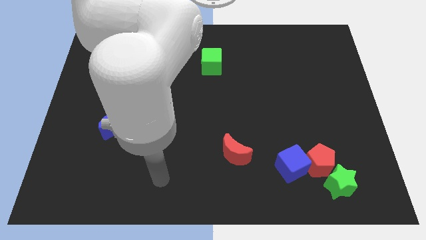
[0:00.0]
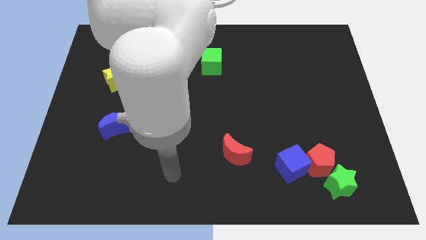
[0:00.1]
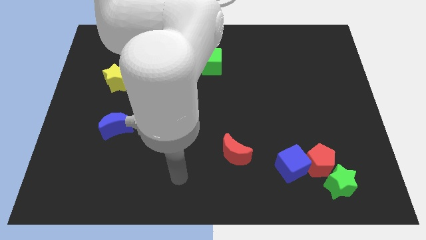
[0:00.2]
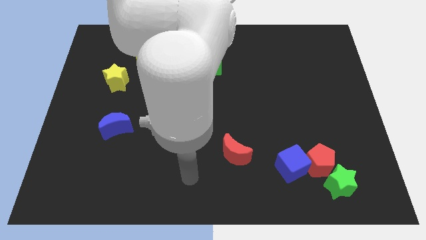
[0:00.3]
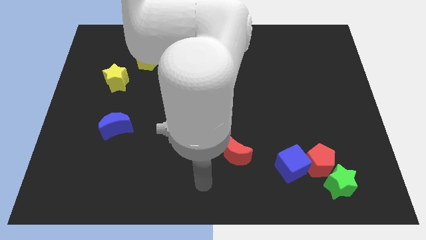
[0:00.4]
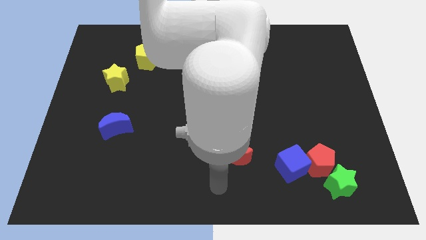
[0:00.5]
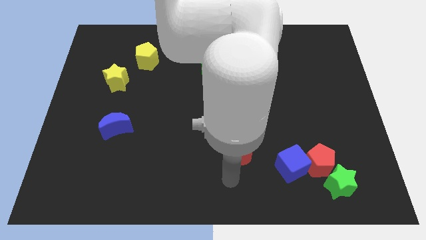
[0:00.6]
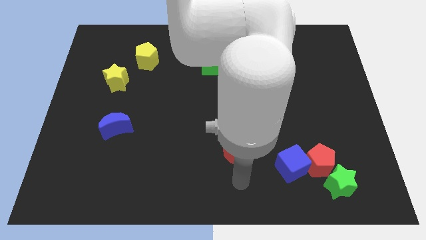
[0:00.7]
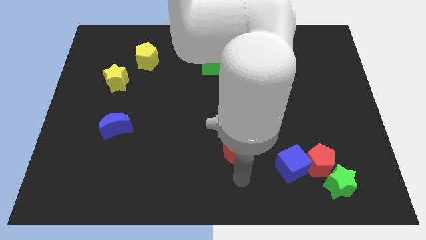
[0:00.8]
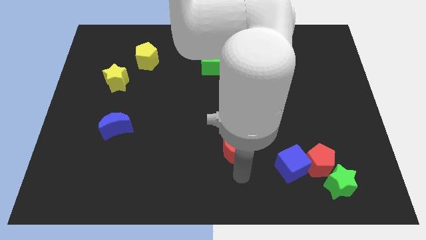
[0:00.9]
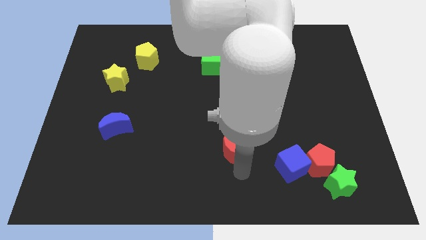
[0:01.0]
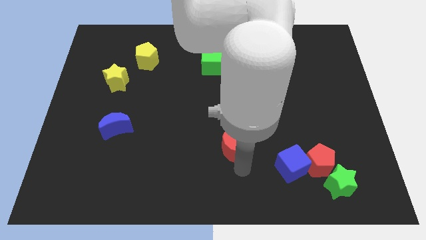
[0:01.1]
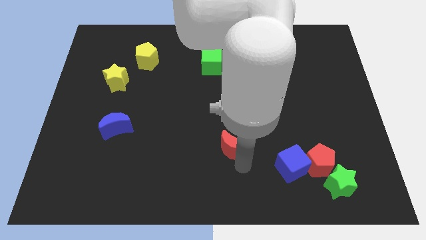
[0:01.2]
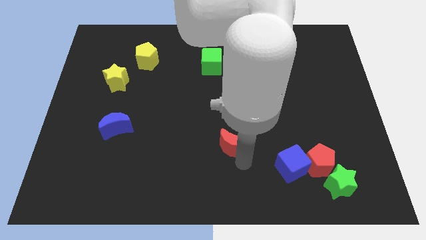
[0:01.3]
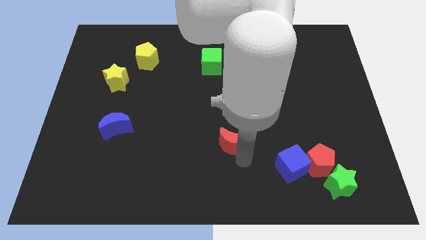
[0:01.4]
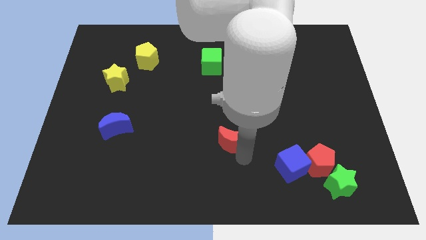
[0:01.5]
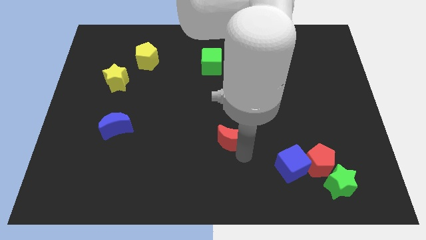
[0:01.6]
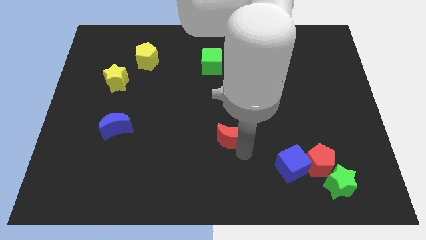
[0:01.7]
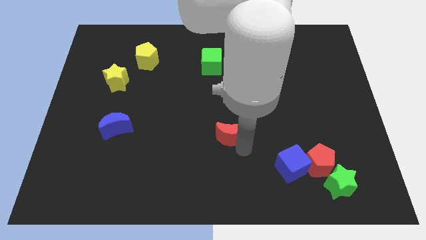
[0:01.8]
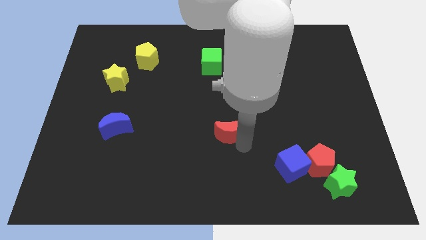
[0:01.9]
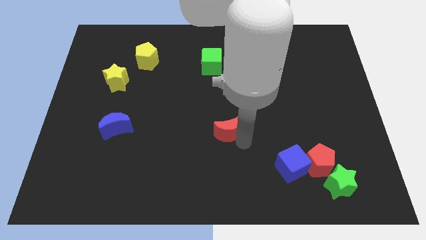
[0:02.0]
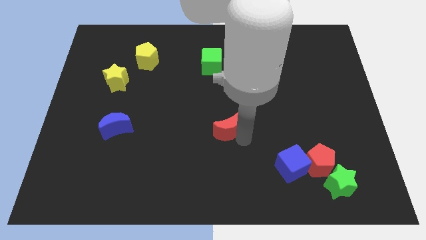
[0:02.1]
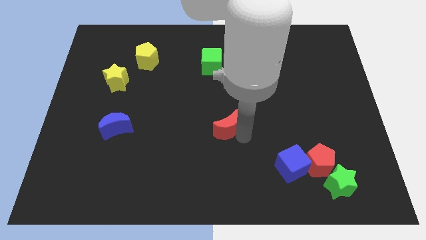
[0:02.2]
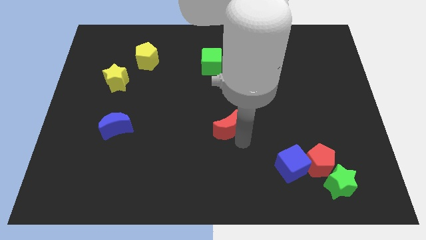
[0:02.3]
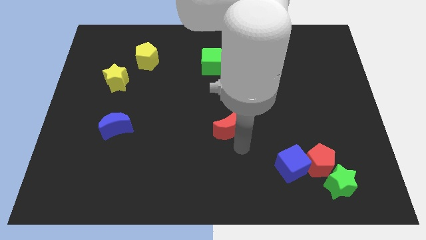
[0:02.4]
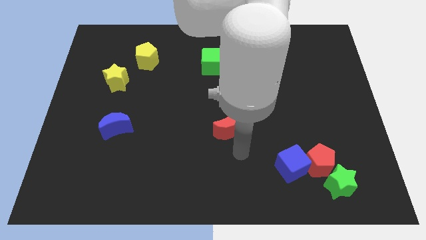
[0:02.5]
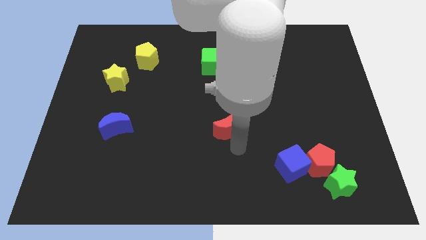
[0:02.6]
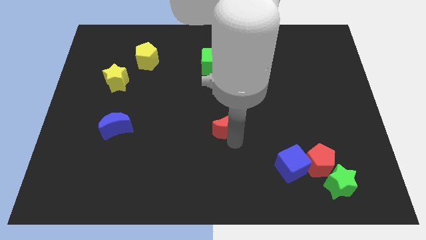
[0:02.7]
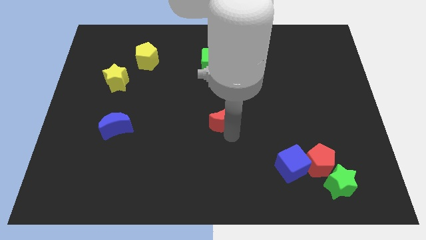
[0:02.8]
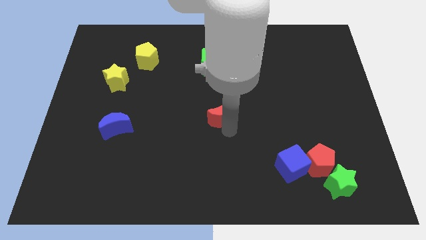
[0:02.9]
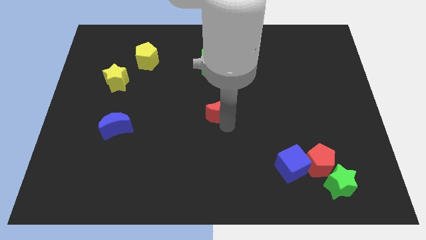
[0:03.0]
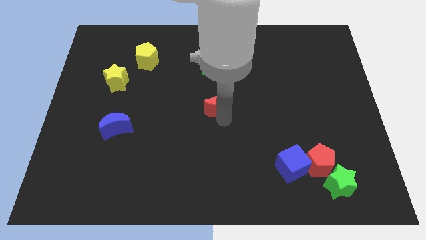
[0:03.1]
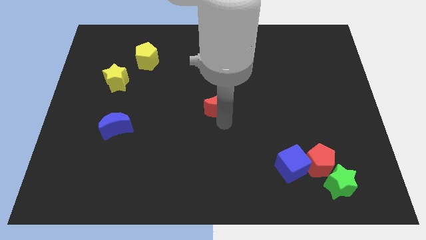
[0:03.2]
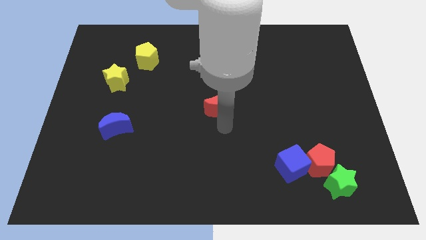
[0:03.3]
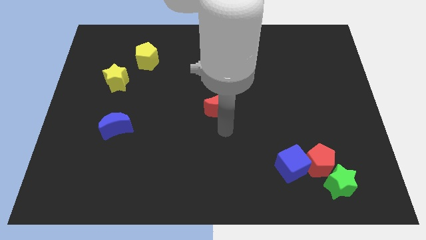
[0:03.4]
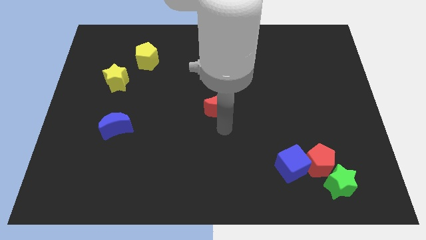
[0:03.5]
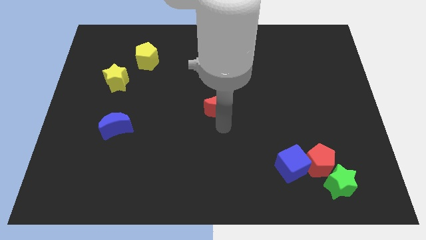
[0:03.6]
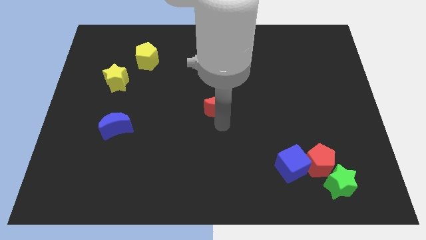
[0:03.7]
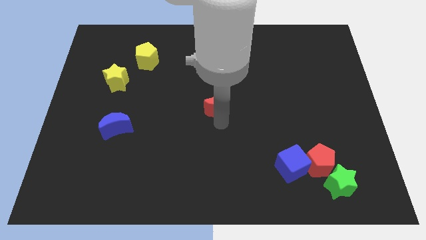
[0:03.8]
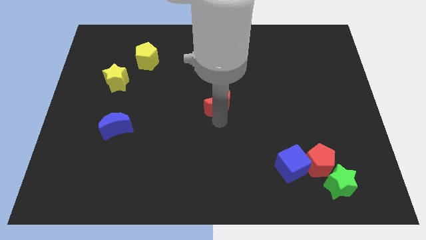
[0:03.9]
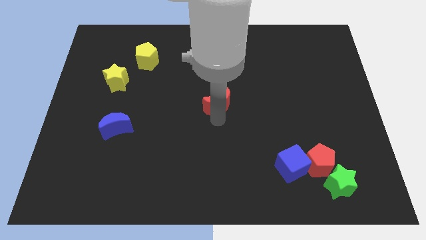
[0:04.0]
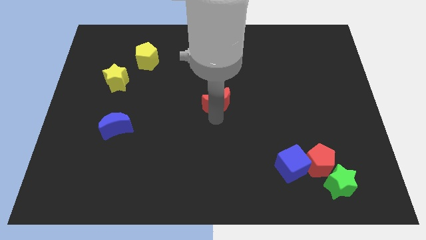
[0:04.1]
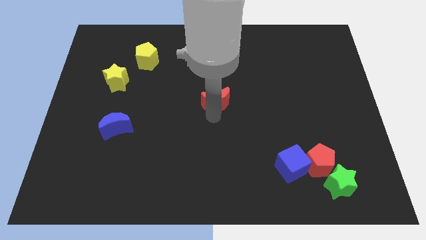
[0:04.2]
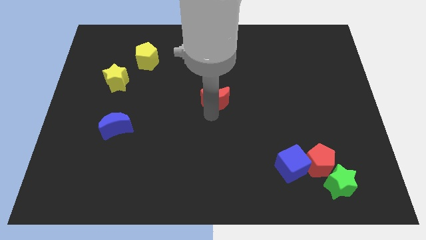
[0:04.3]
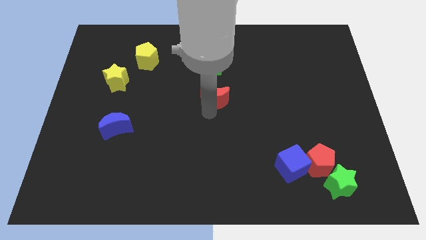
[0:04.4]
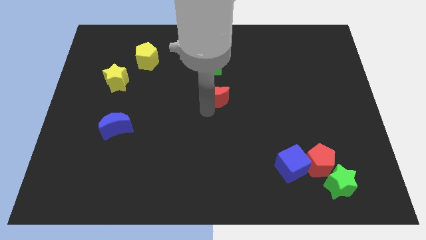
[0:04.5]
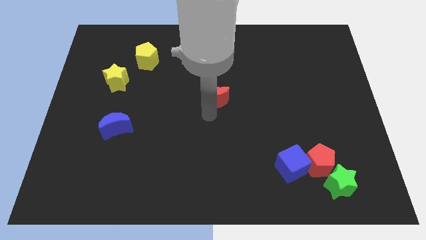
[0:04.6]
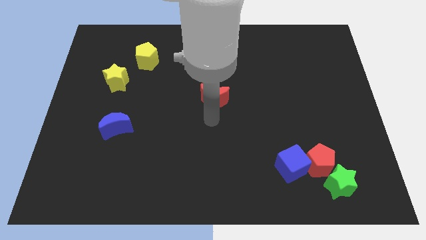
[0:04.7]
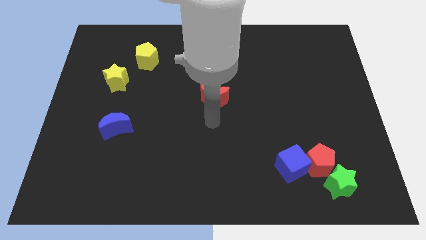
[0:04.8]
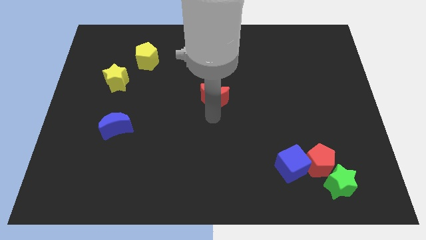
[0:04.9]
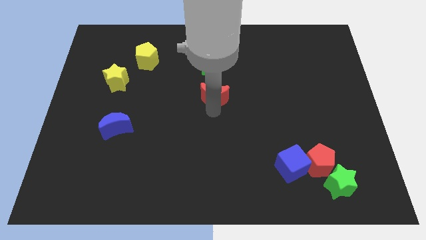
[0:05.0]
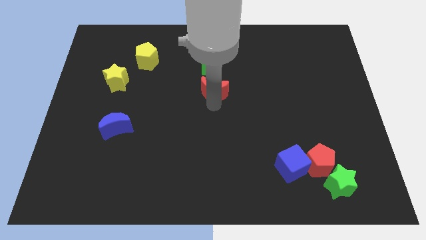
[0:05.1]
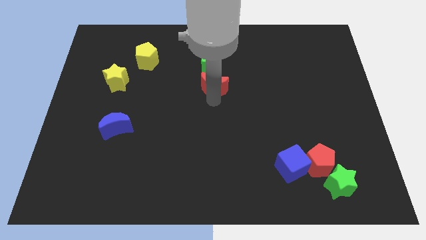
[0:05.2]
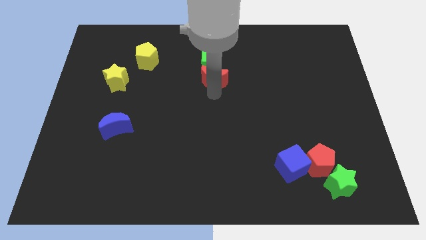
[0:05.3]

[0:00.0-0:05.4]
put the red moon to the green cube

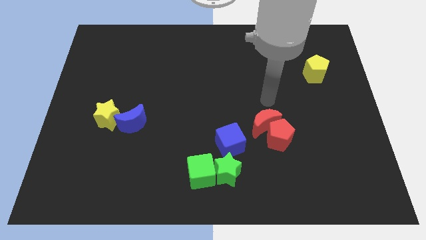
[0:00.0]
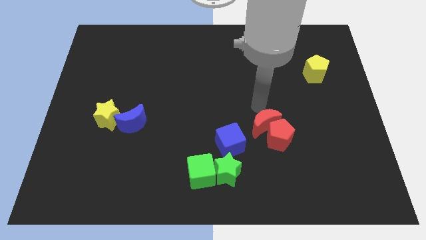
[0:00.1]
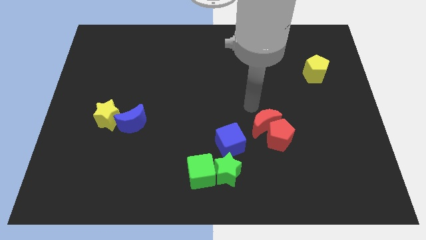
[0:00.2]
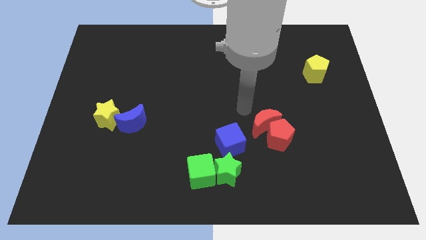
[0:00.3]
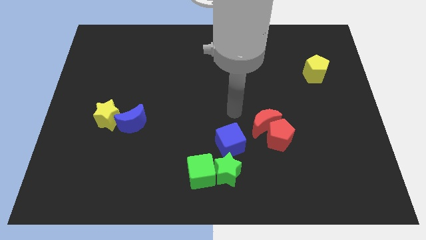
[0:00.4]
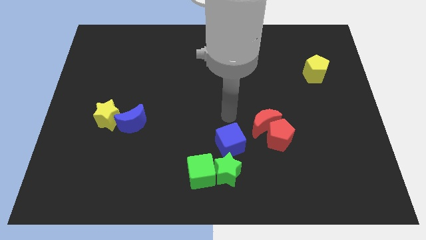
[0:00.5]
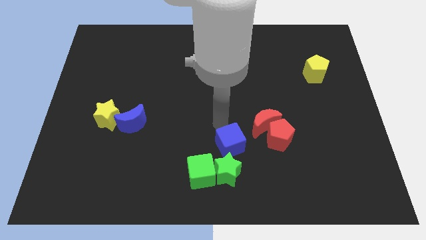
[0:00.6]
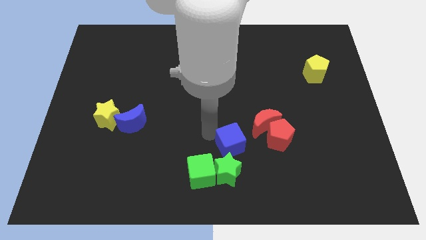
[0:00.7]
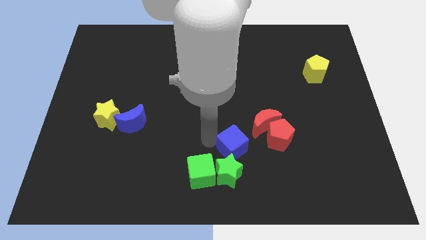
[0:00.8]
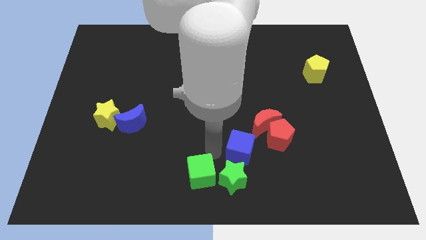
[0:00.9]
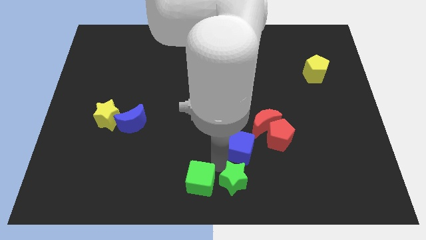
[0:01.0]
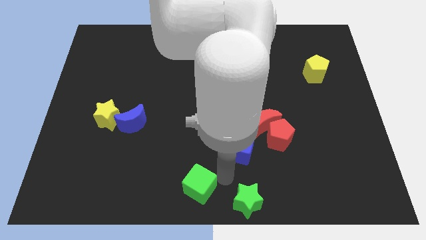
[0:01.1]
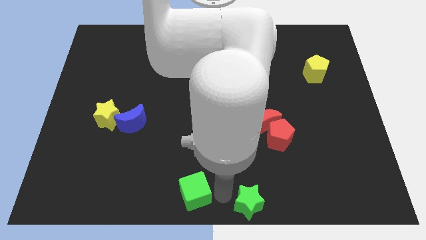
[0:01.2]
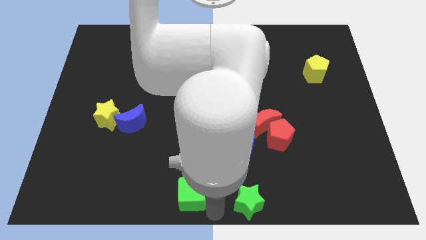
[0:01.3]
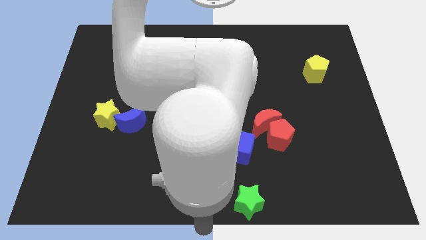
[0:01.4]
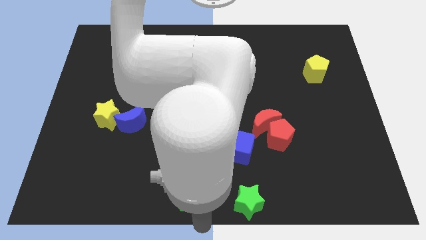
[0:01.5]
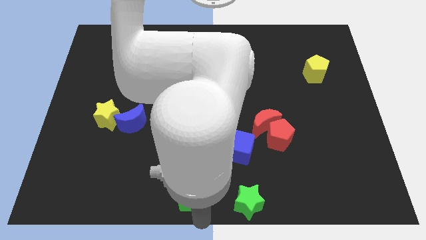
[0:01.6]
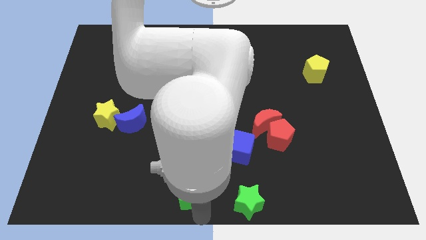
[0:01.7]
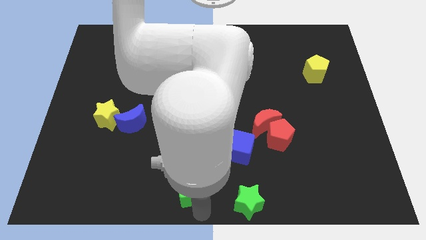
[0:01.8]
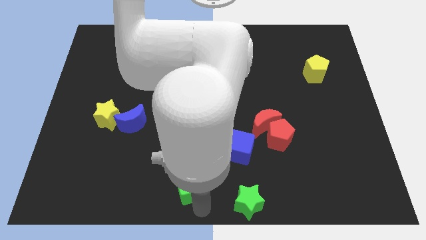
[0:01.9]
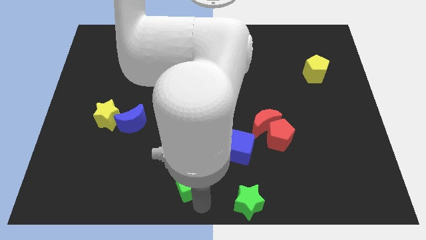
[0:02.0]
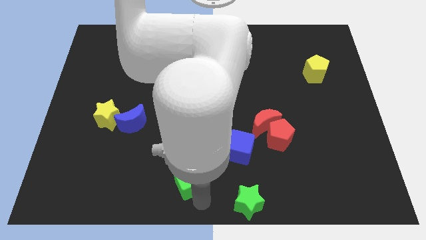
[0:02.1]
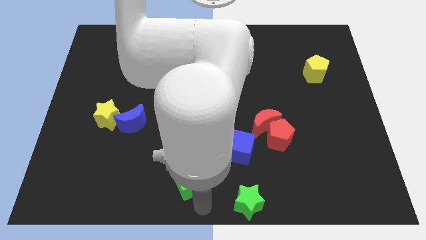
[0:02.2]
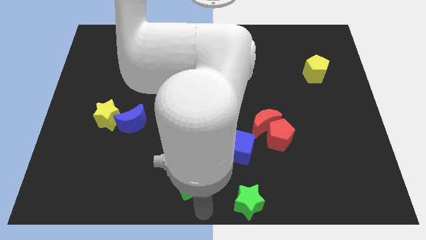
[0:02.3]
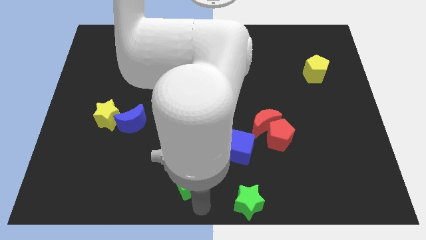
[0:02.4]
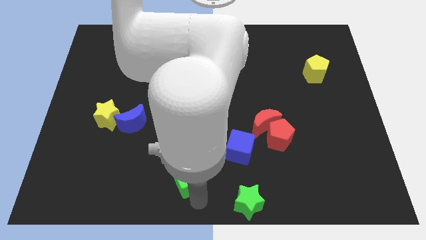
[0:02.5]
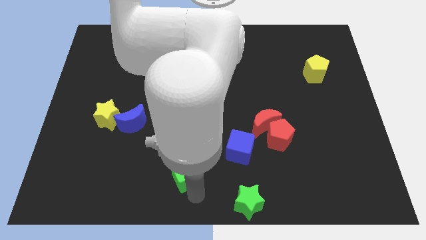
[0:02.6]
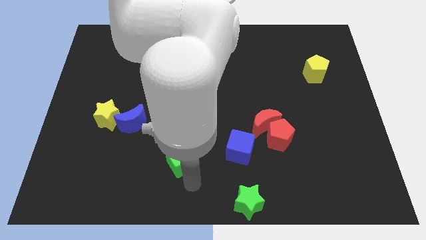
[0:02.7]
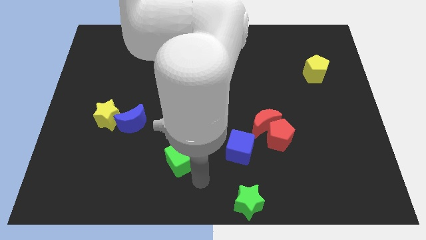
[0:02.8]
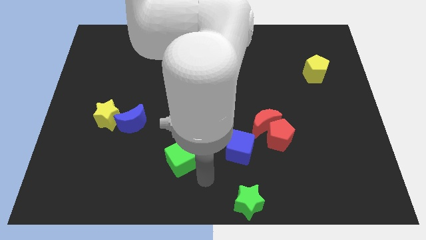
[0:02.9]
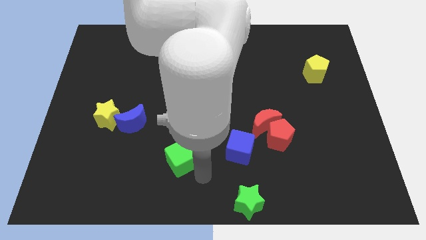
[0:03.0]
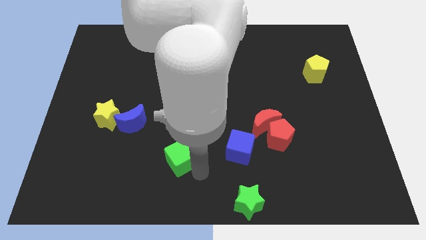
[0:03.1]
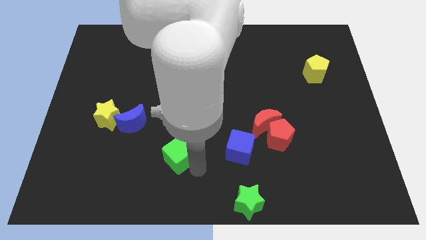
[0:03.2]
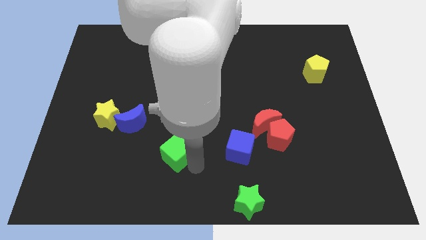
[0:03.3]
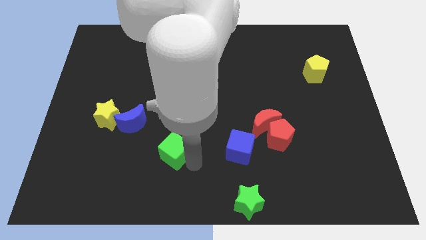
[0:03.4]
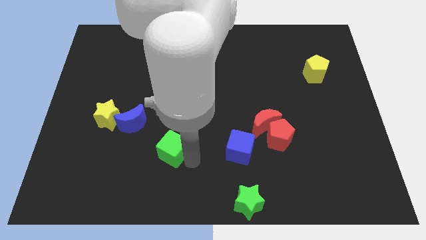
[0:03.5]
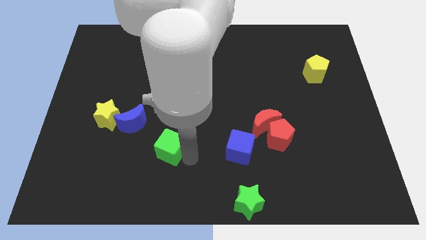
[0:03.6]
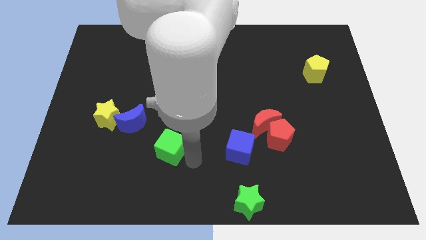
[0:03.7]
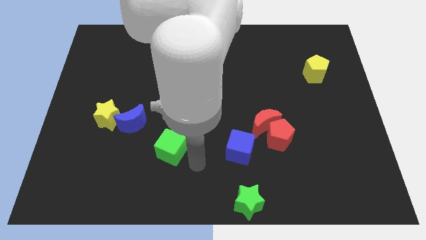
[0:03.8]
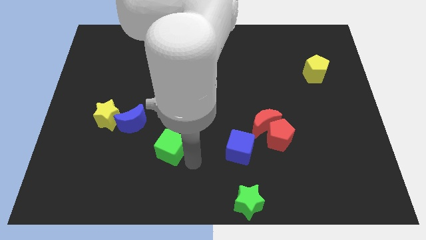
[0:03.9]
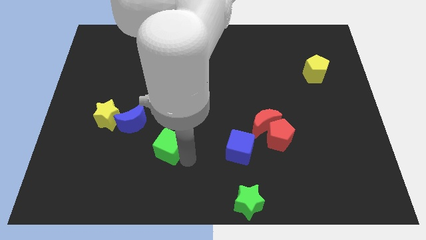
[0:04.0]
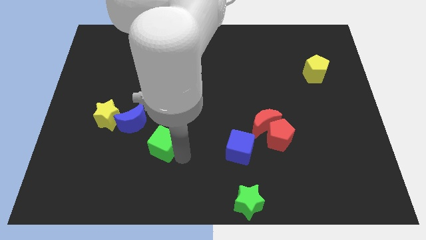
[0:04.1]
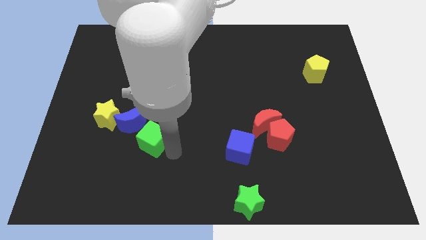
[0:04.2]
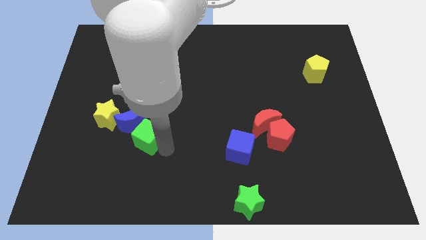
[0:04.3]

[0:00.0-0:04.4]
slide the green cube to the blue moon
